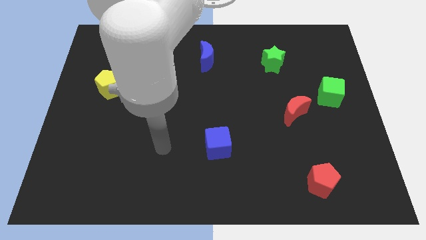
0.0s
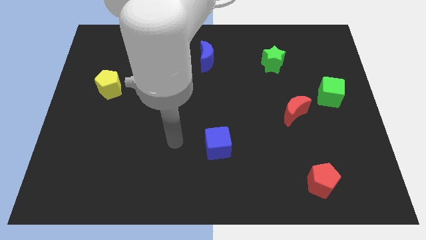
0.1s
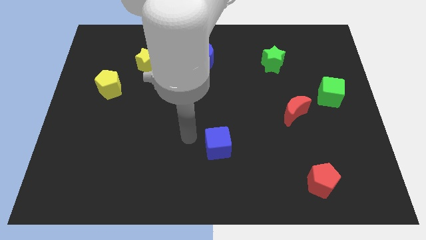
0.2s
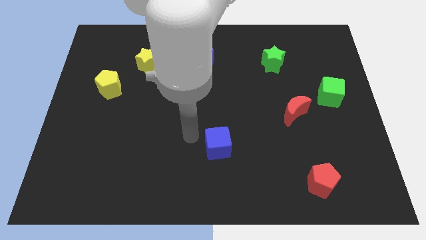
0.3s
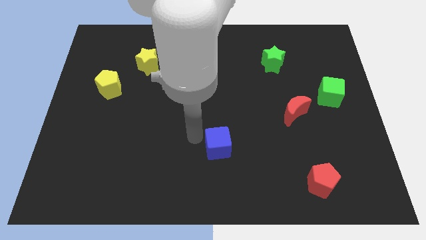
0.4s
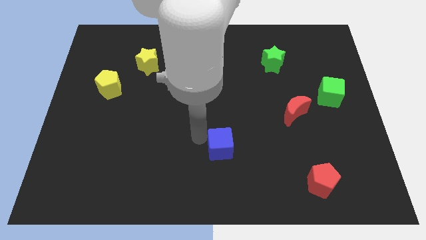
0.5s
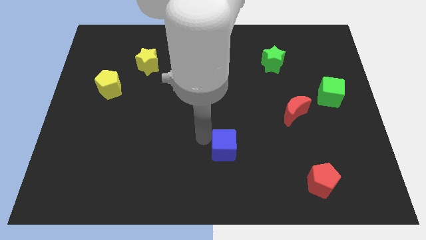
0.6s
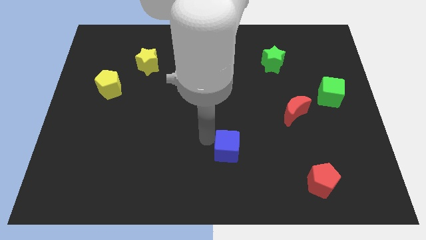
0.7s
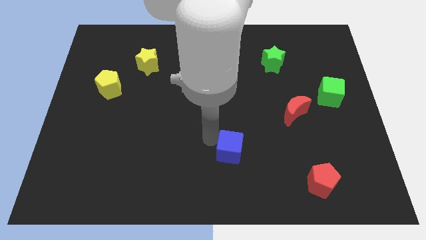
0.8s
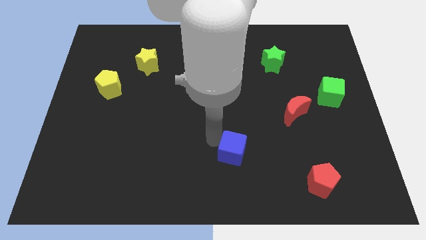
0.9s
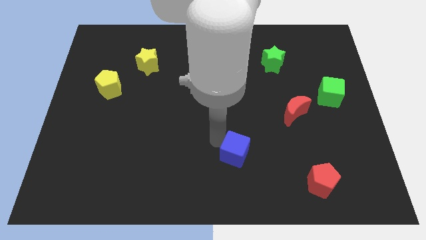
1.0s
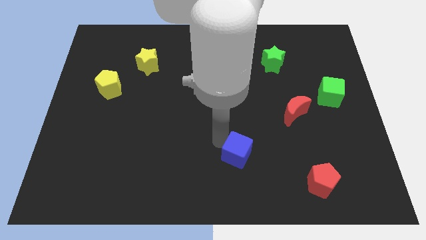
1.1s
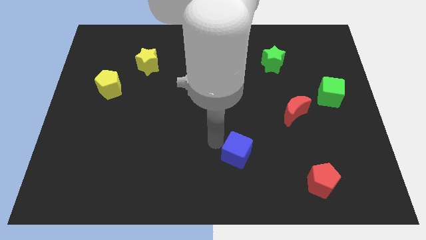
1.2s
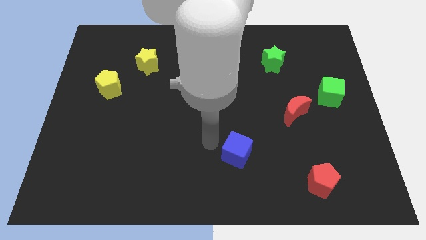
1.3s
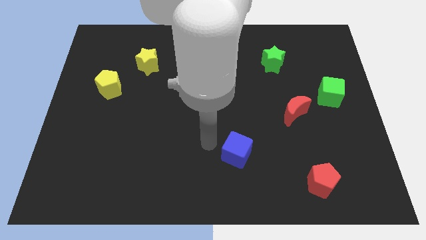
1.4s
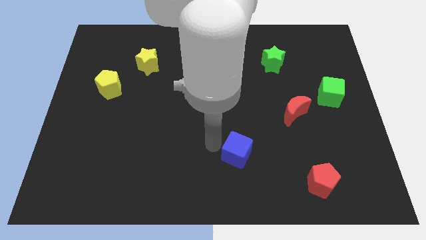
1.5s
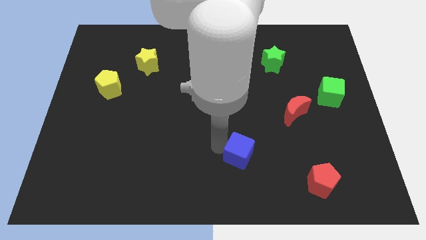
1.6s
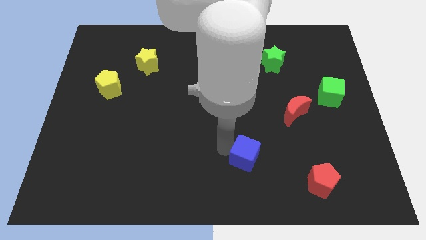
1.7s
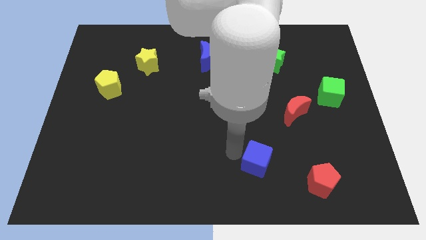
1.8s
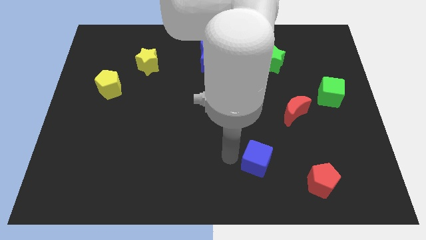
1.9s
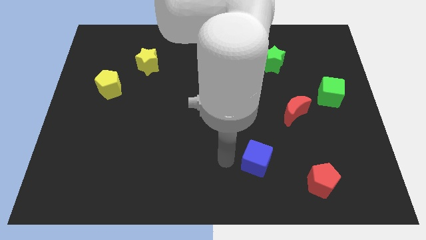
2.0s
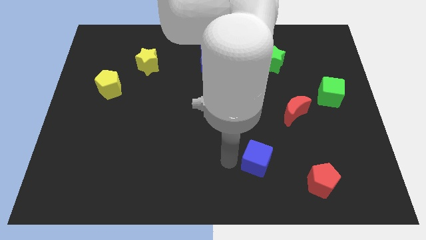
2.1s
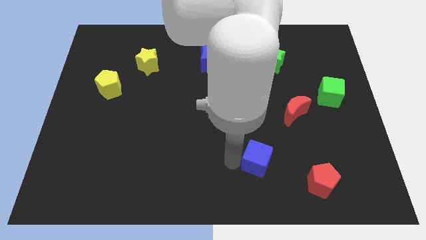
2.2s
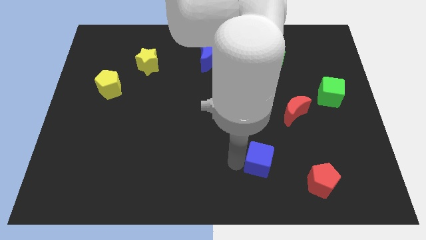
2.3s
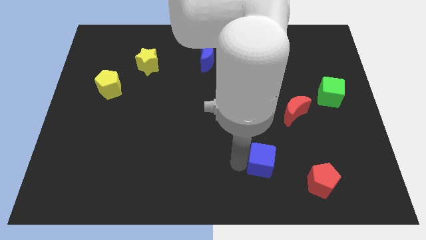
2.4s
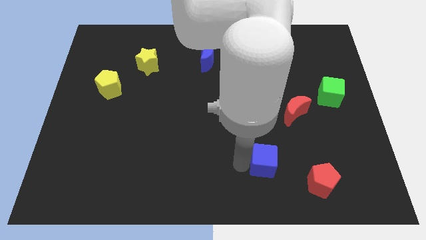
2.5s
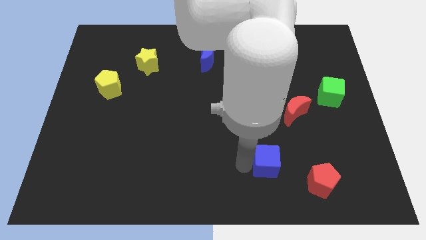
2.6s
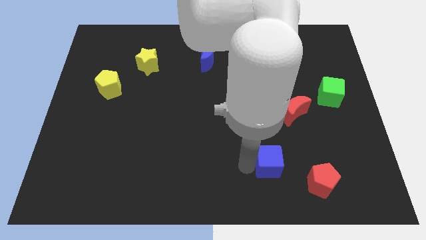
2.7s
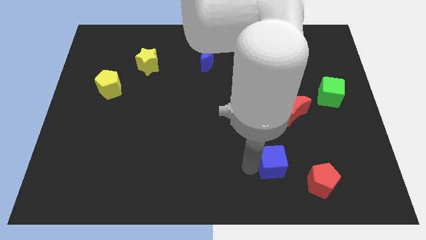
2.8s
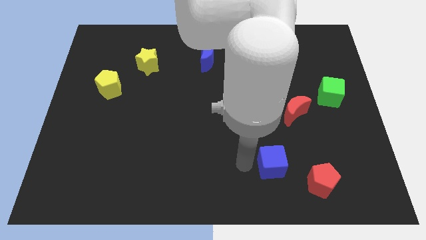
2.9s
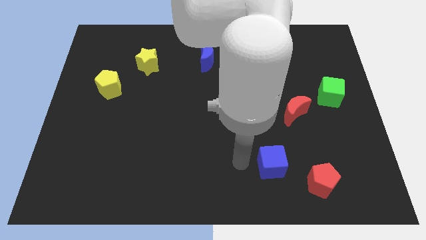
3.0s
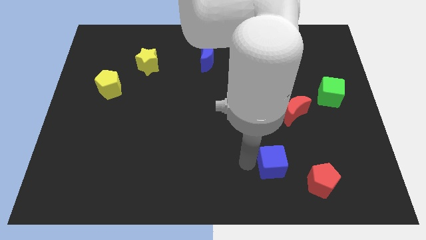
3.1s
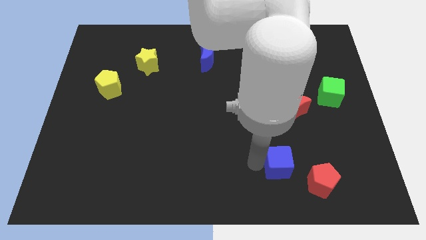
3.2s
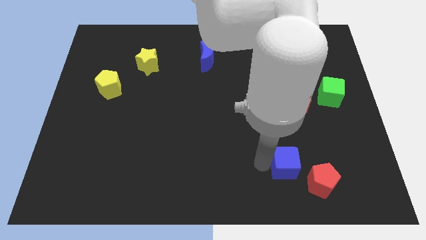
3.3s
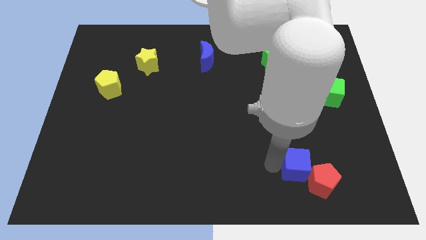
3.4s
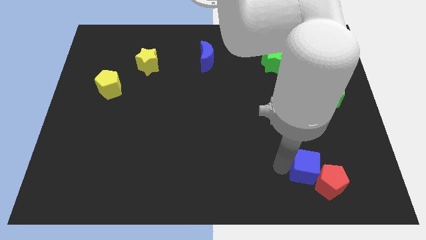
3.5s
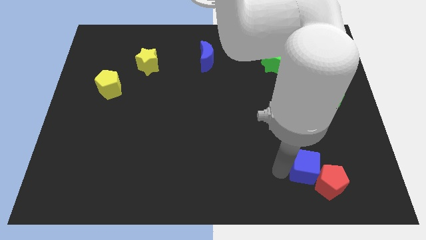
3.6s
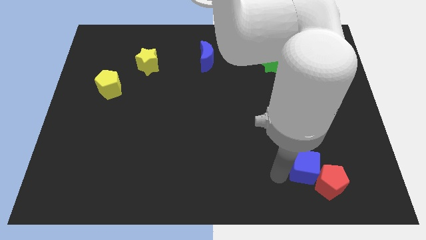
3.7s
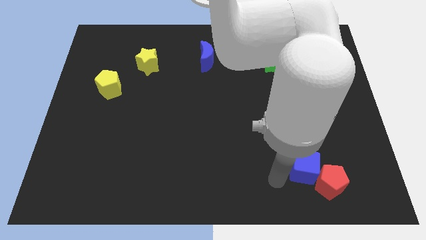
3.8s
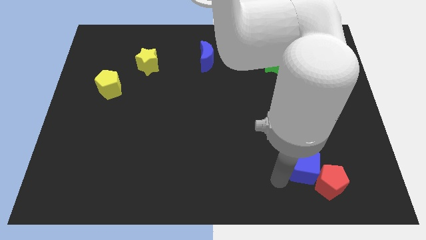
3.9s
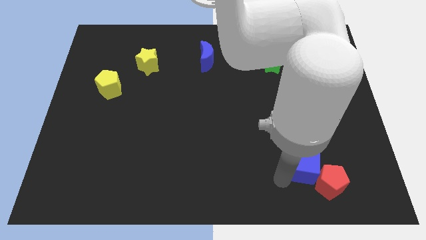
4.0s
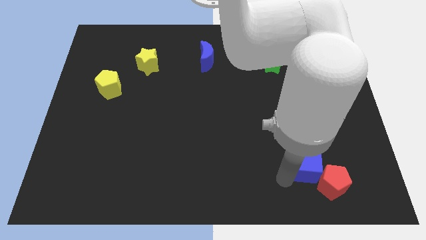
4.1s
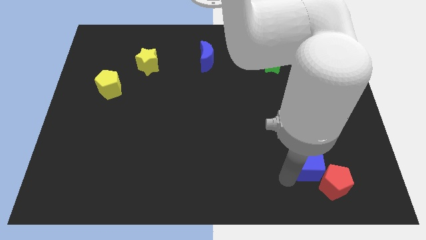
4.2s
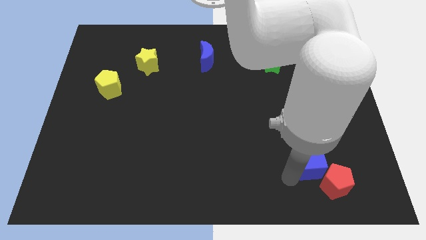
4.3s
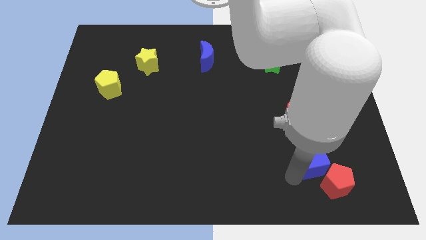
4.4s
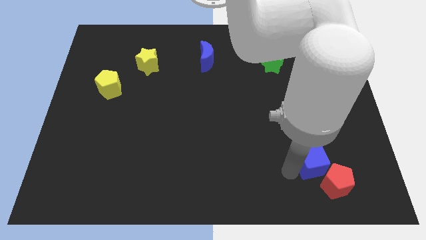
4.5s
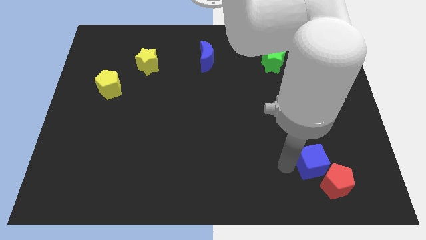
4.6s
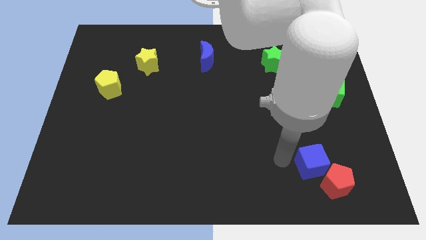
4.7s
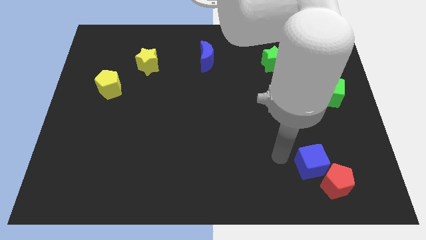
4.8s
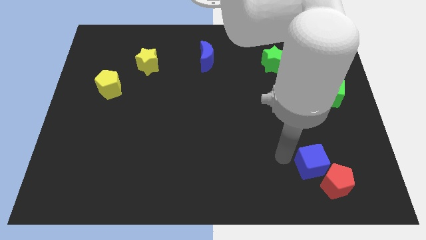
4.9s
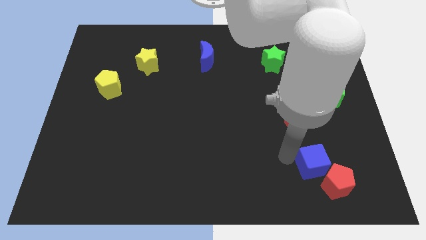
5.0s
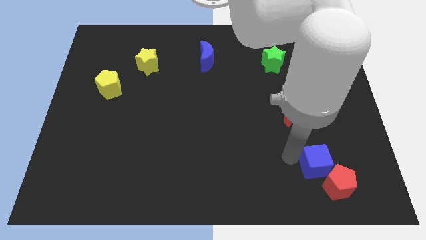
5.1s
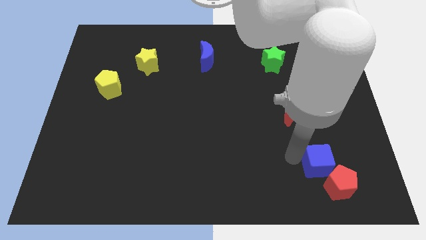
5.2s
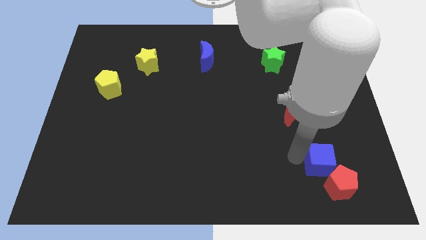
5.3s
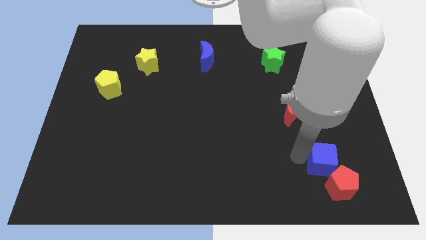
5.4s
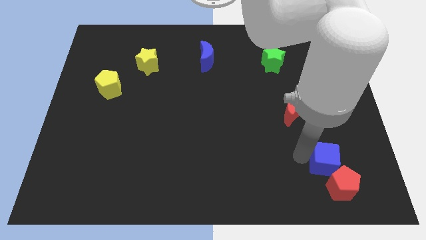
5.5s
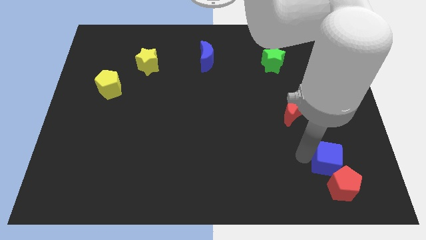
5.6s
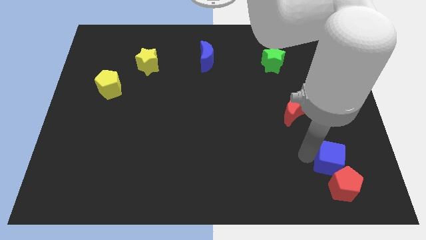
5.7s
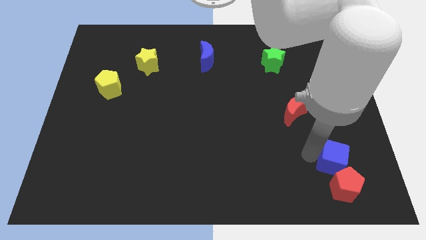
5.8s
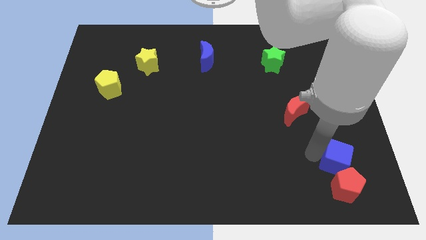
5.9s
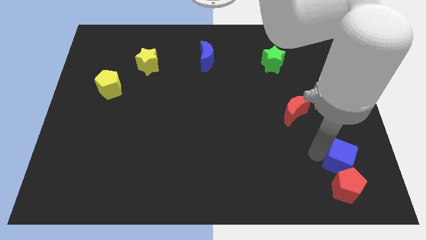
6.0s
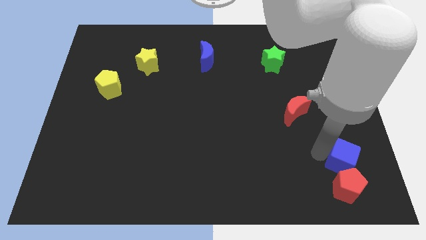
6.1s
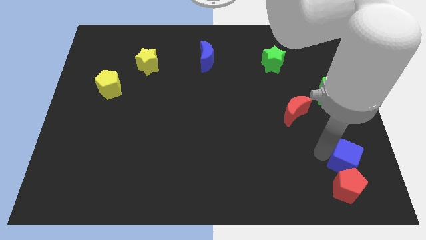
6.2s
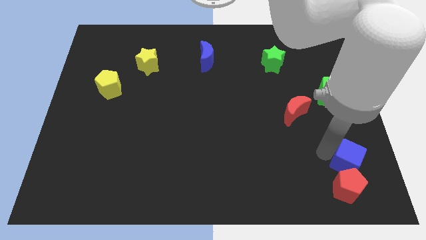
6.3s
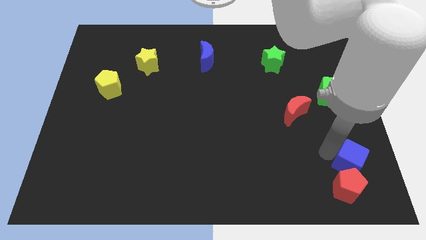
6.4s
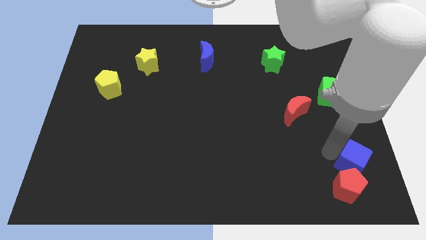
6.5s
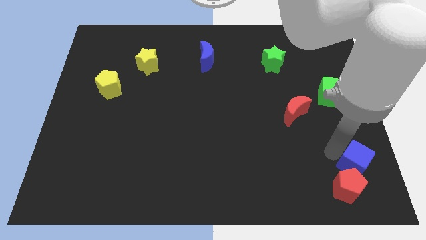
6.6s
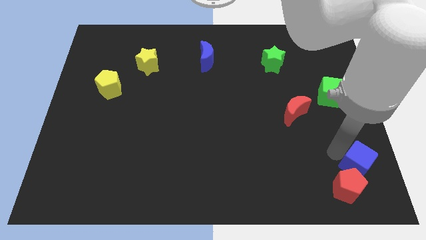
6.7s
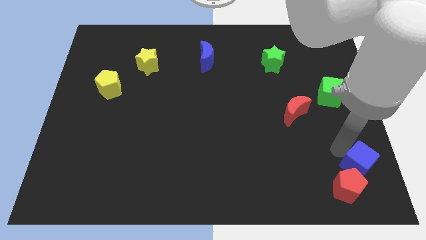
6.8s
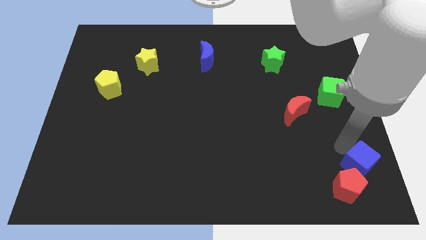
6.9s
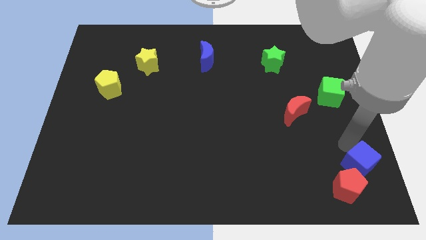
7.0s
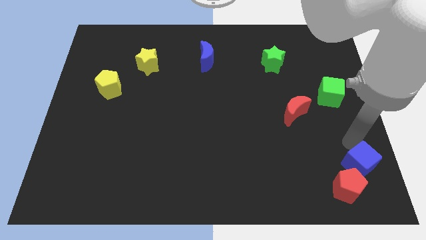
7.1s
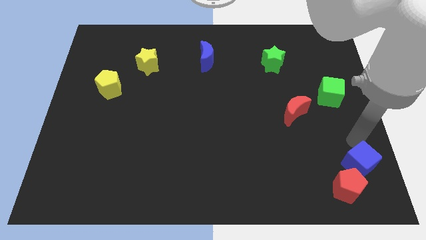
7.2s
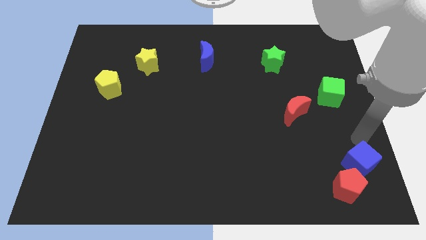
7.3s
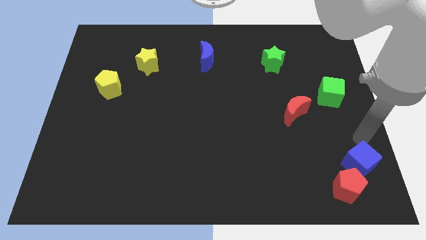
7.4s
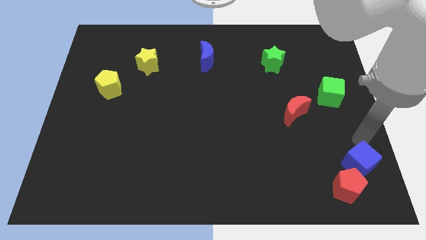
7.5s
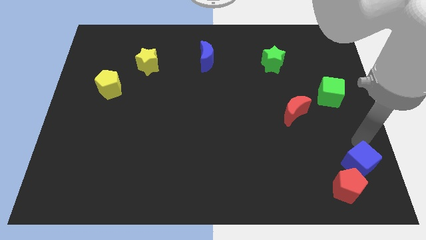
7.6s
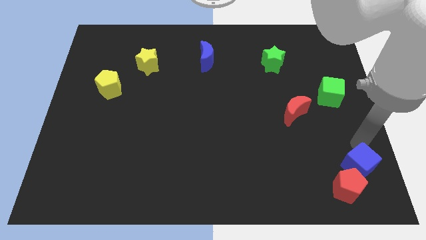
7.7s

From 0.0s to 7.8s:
slide the blue cube to the bottom right

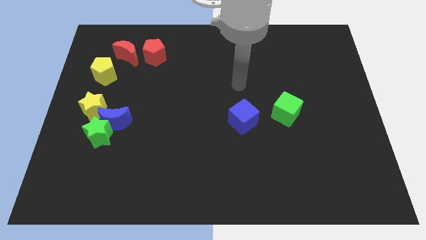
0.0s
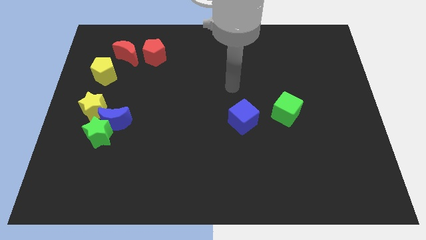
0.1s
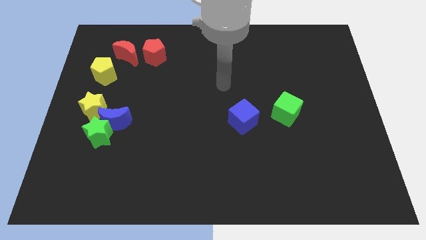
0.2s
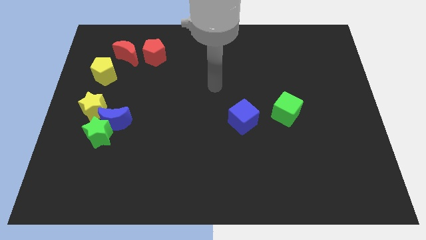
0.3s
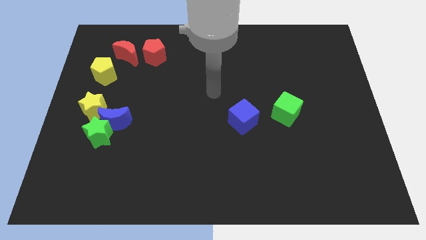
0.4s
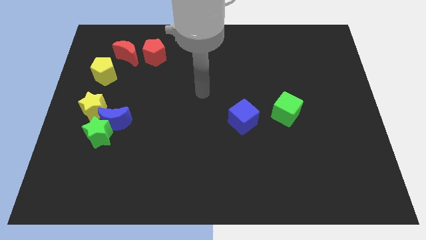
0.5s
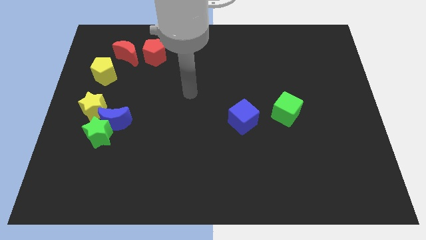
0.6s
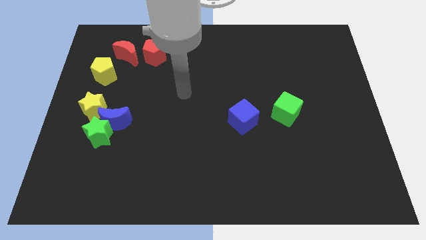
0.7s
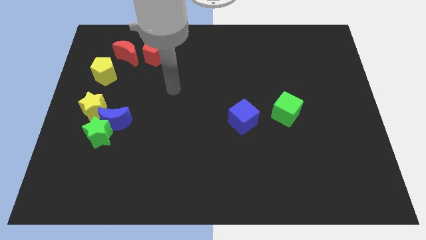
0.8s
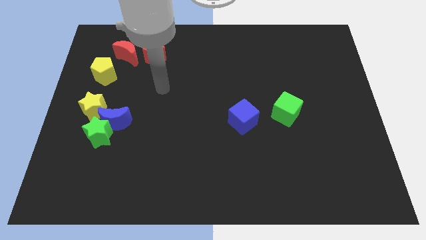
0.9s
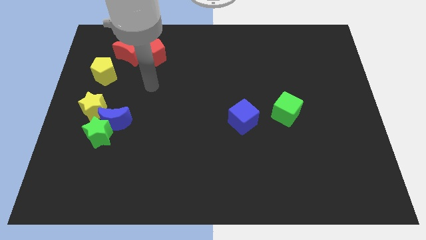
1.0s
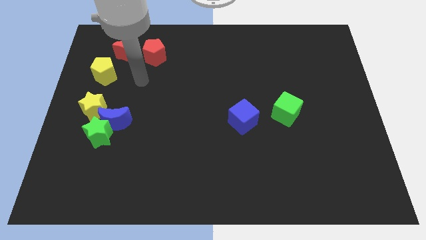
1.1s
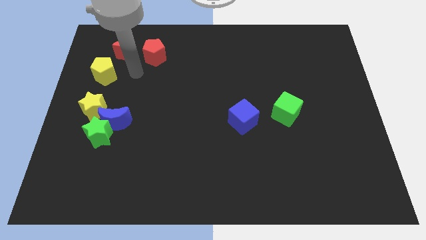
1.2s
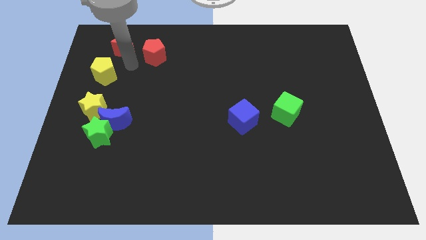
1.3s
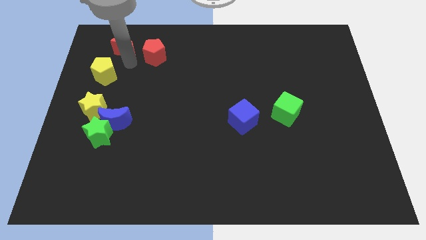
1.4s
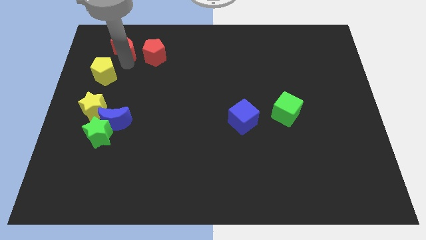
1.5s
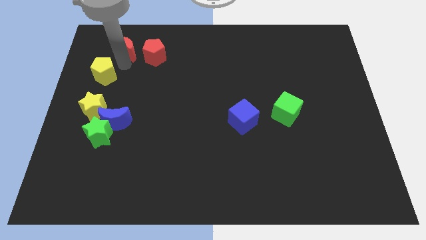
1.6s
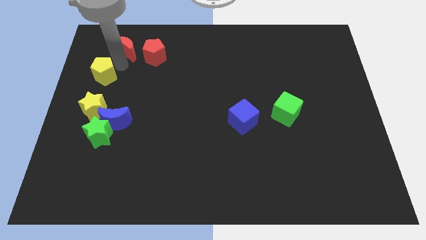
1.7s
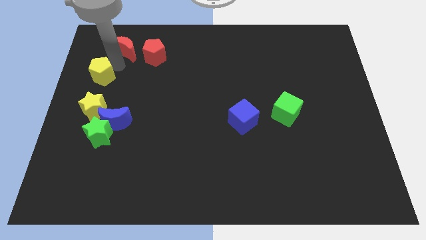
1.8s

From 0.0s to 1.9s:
move the yellow pentagon to the left side of the board
